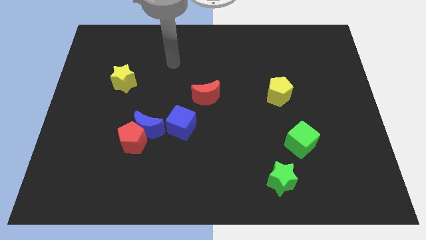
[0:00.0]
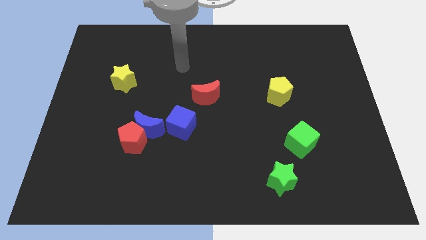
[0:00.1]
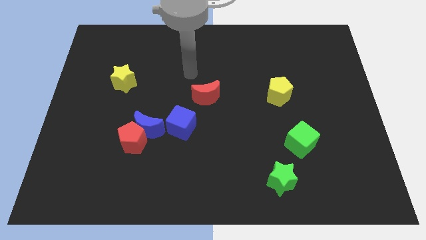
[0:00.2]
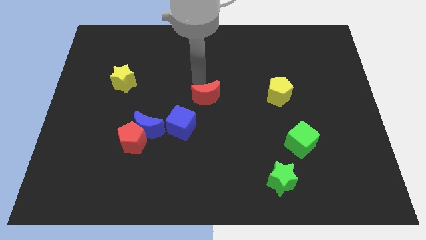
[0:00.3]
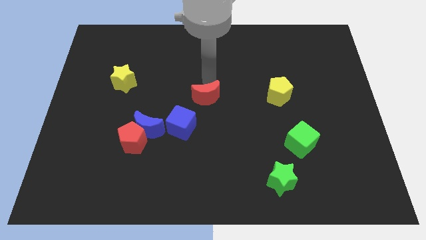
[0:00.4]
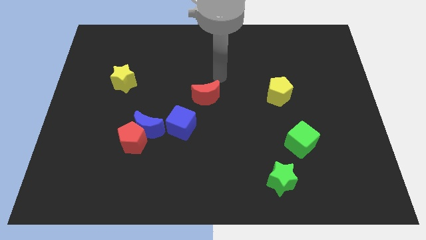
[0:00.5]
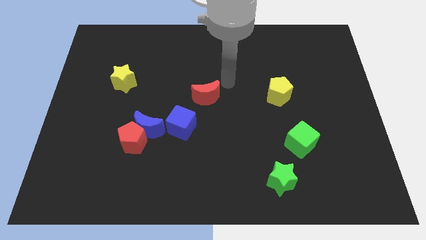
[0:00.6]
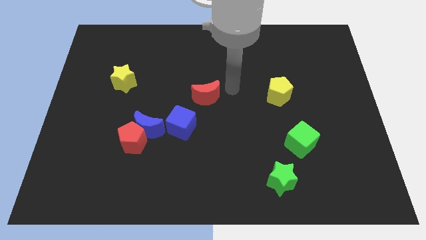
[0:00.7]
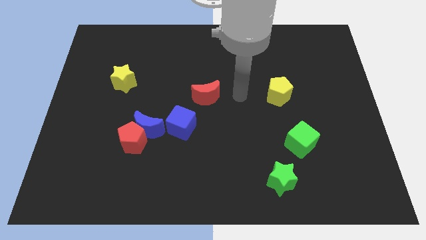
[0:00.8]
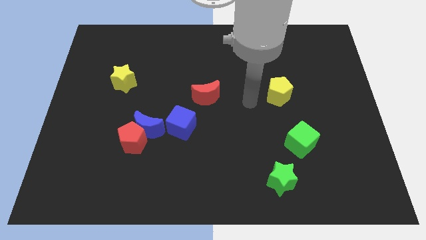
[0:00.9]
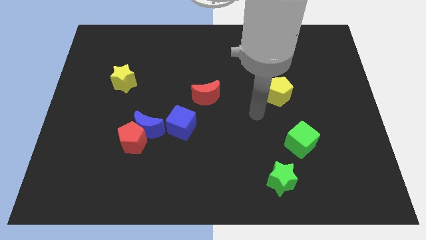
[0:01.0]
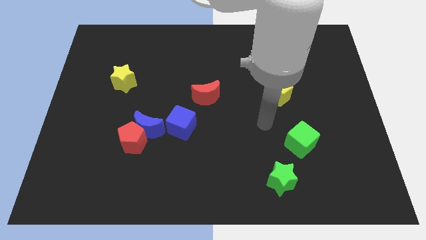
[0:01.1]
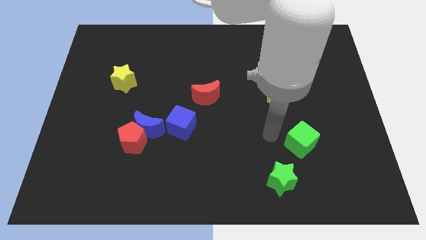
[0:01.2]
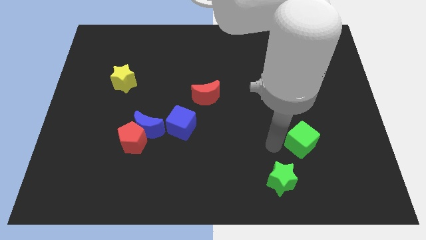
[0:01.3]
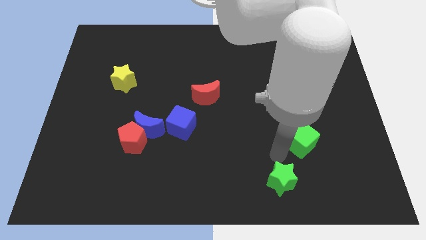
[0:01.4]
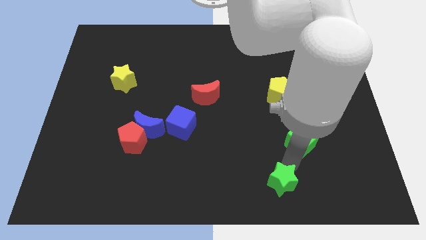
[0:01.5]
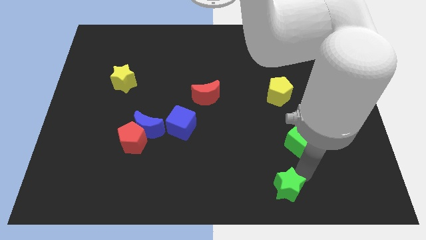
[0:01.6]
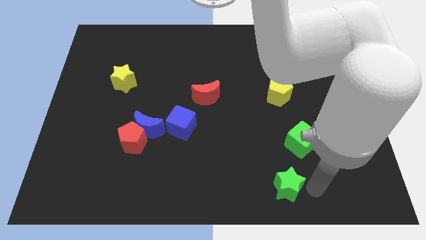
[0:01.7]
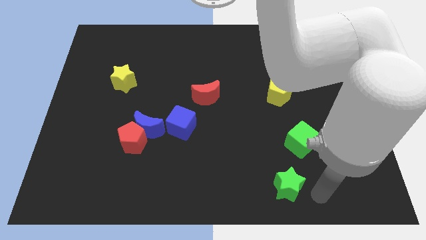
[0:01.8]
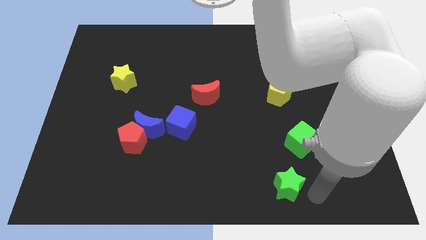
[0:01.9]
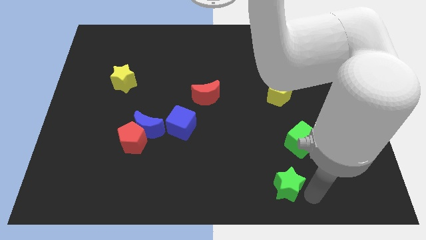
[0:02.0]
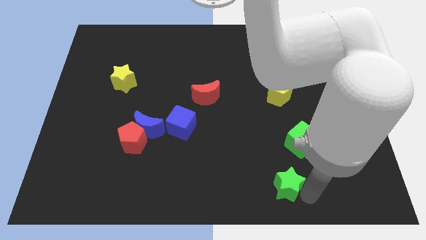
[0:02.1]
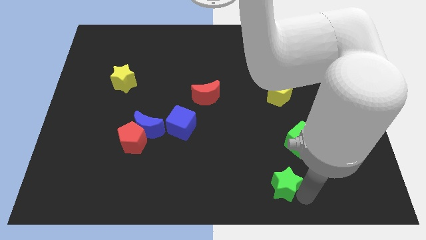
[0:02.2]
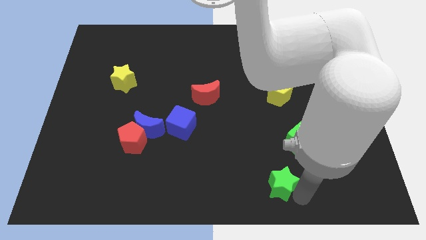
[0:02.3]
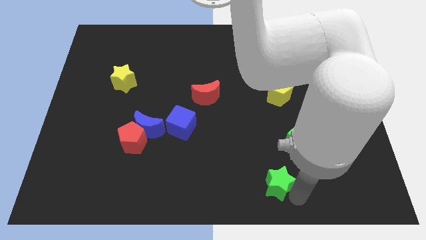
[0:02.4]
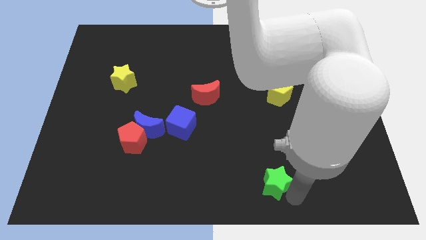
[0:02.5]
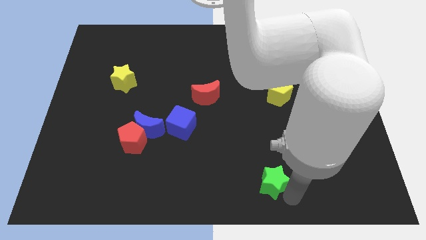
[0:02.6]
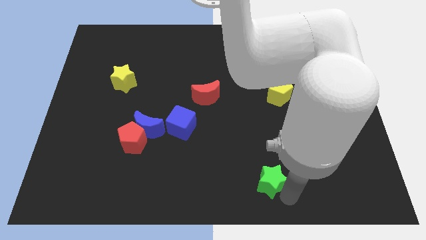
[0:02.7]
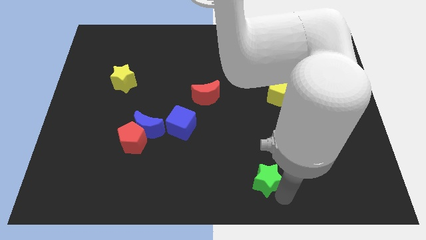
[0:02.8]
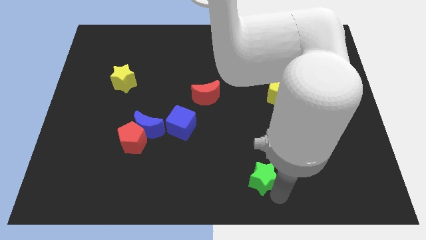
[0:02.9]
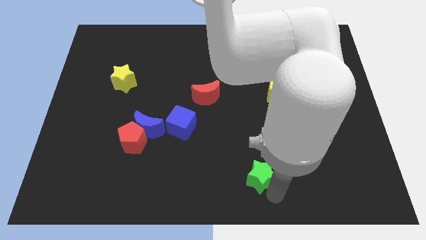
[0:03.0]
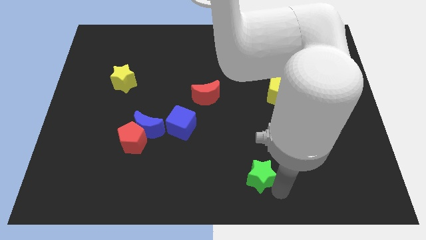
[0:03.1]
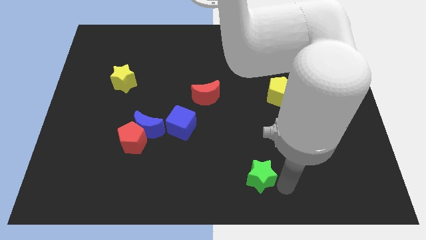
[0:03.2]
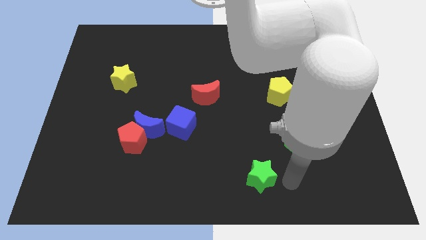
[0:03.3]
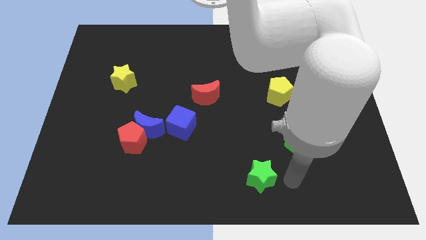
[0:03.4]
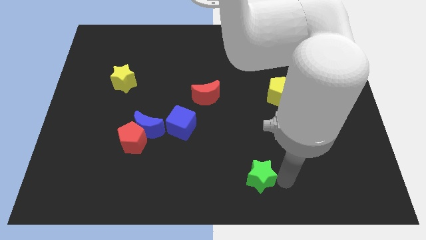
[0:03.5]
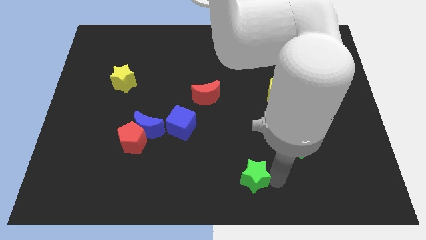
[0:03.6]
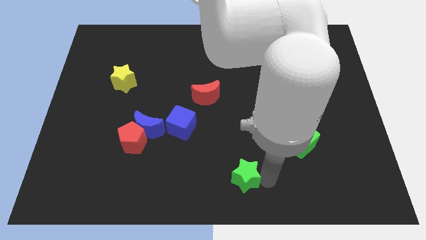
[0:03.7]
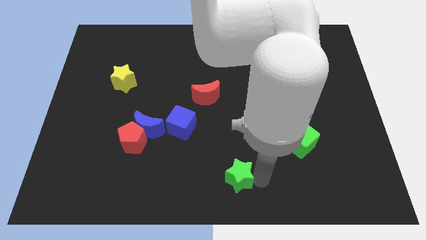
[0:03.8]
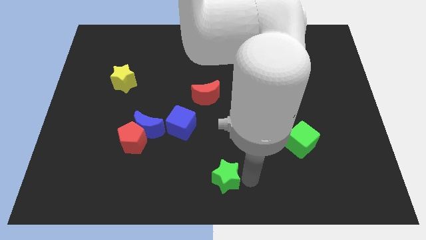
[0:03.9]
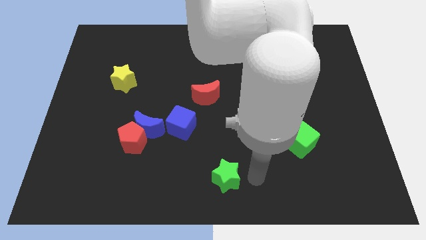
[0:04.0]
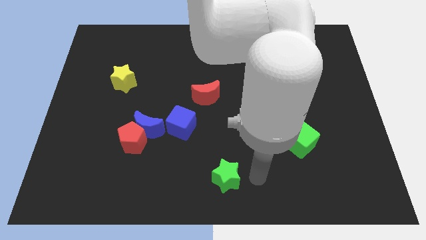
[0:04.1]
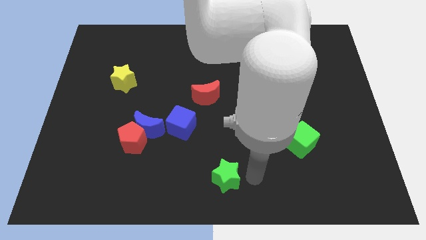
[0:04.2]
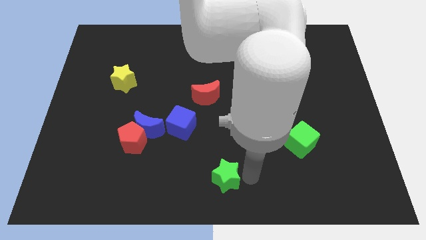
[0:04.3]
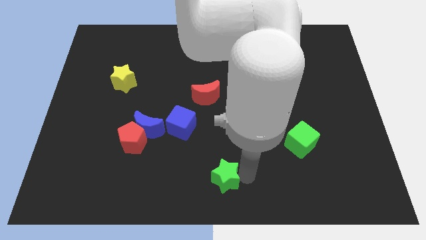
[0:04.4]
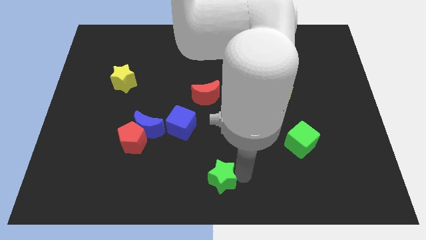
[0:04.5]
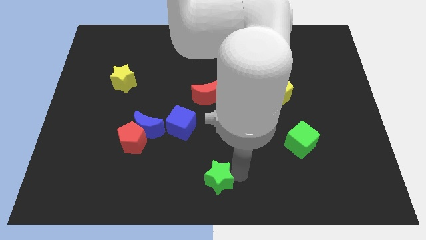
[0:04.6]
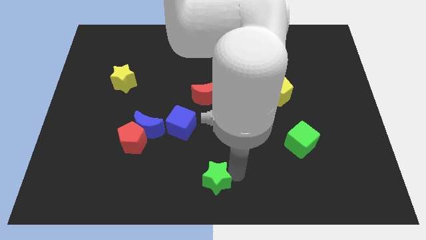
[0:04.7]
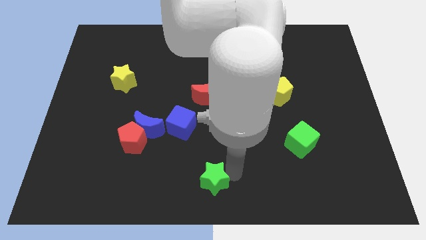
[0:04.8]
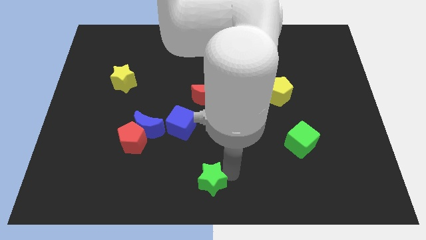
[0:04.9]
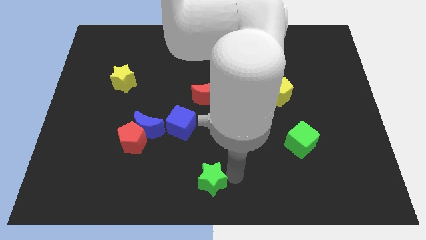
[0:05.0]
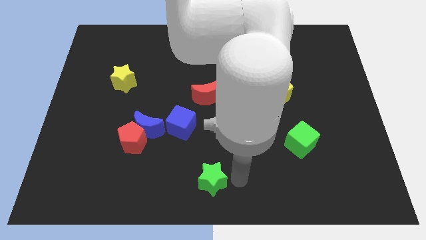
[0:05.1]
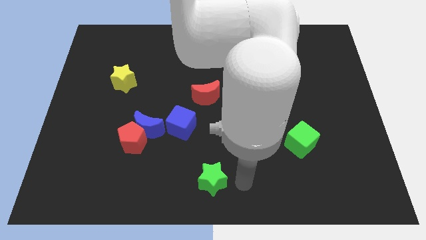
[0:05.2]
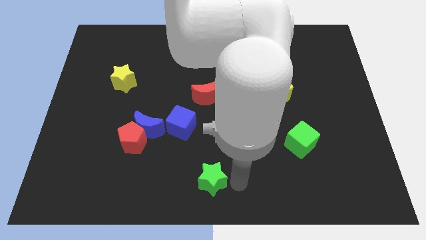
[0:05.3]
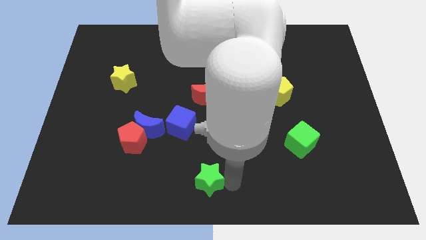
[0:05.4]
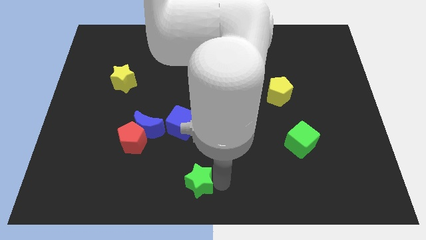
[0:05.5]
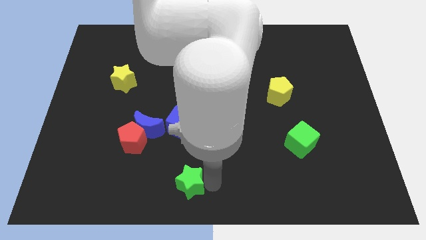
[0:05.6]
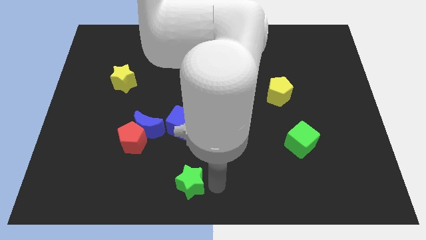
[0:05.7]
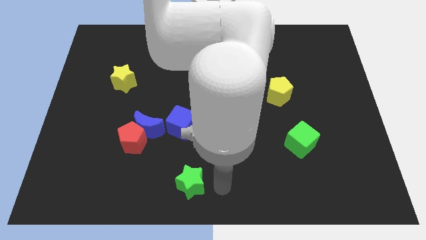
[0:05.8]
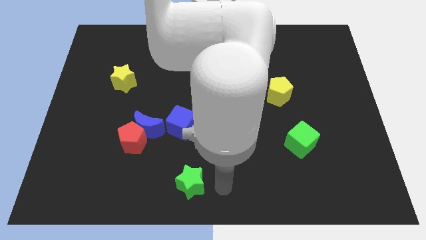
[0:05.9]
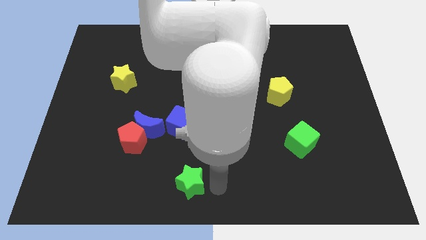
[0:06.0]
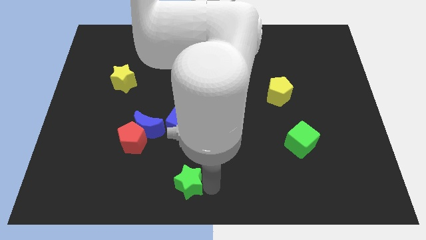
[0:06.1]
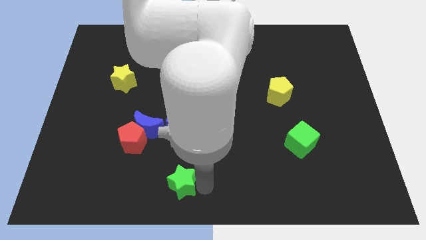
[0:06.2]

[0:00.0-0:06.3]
push the green star left

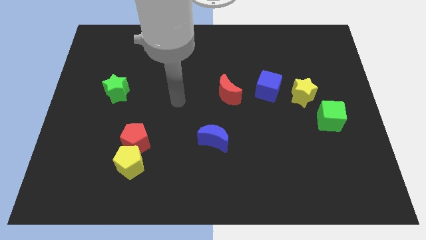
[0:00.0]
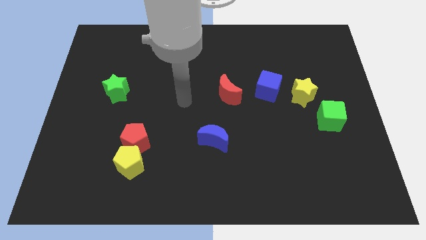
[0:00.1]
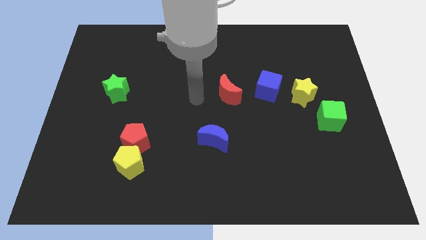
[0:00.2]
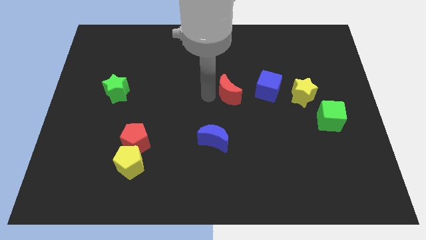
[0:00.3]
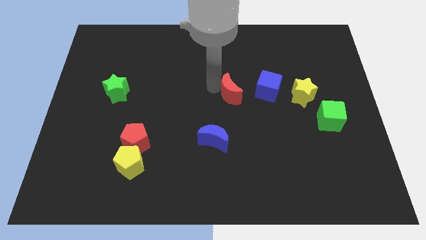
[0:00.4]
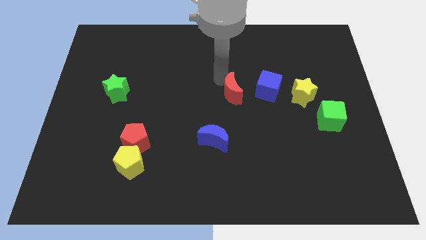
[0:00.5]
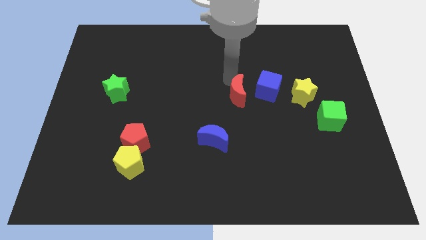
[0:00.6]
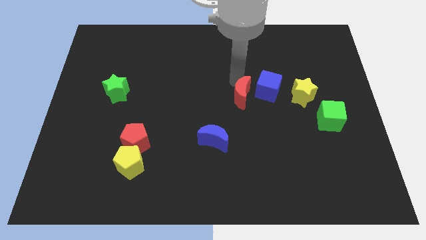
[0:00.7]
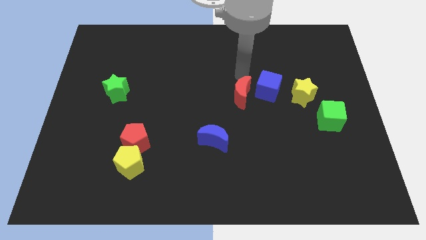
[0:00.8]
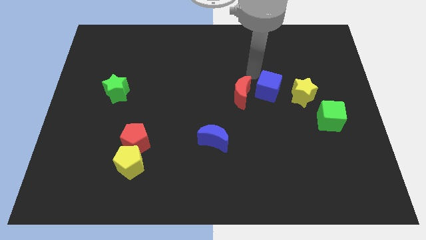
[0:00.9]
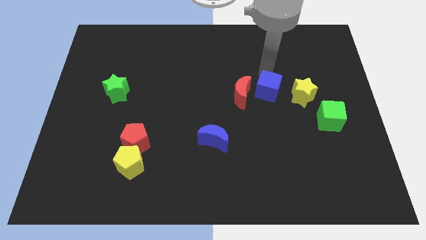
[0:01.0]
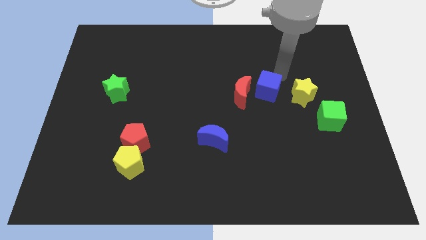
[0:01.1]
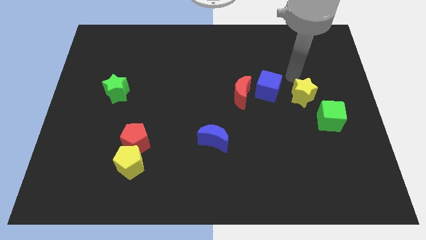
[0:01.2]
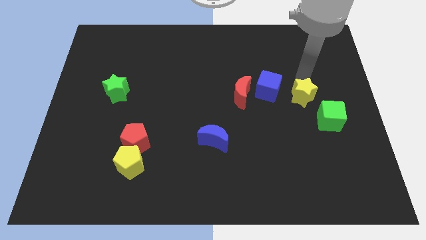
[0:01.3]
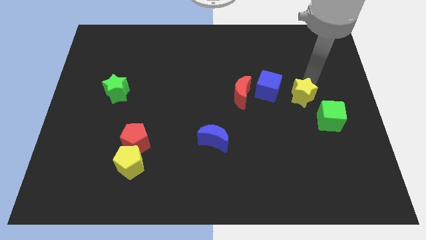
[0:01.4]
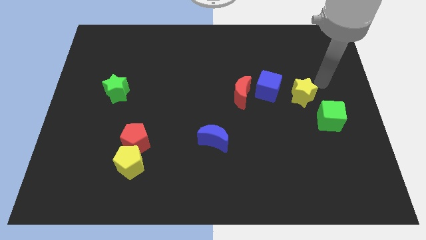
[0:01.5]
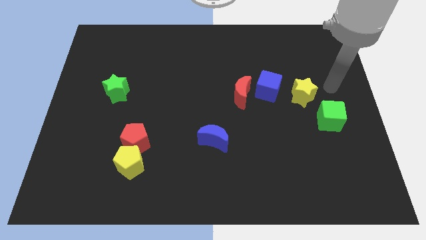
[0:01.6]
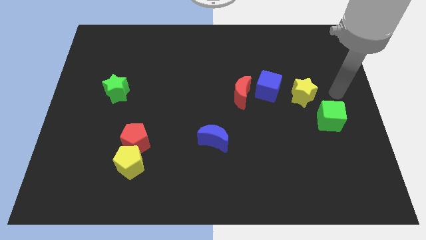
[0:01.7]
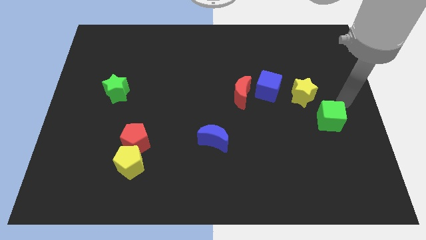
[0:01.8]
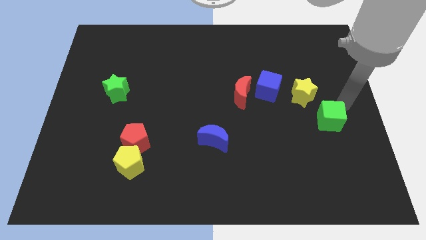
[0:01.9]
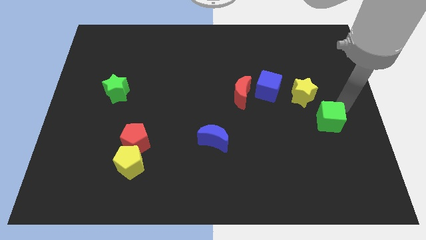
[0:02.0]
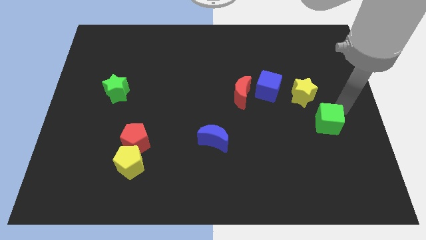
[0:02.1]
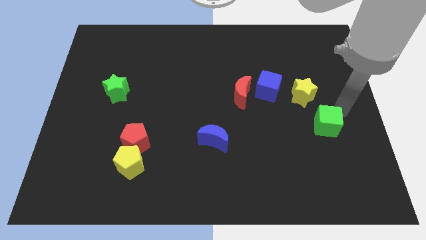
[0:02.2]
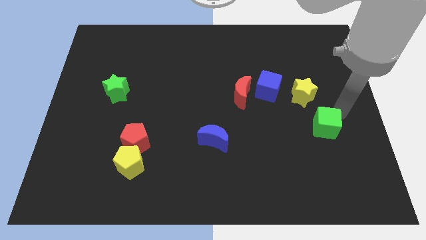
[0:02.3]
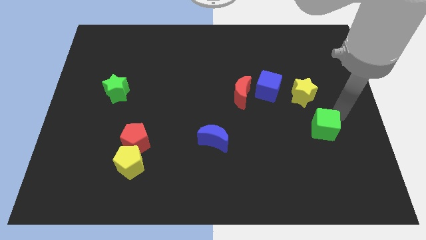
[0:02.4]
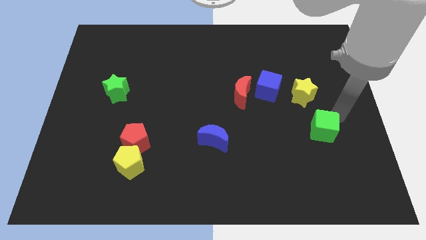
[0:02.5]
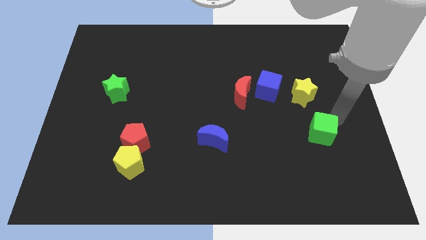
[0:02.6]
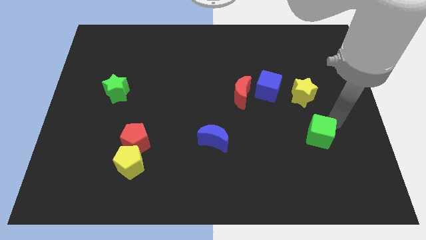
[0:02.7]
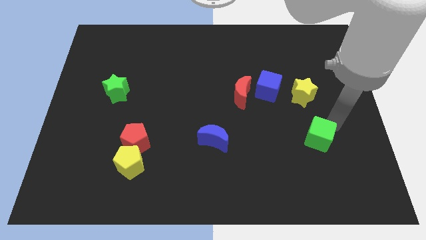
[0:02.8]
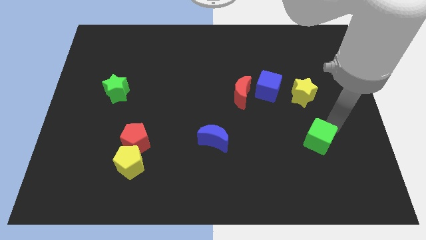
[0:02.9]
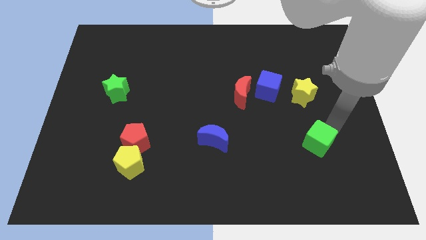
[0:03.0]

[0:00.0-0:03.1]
push the green cube somewhat downwards and left
